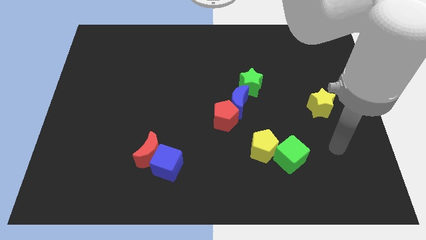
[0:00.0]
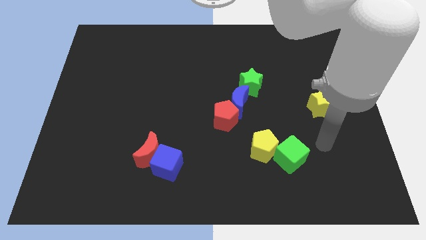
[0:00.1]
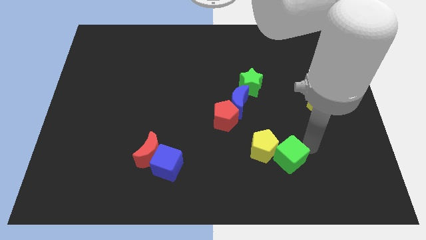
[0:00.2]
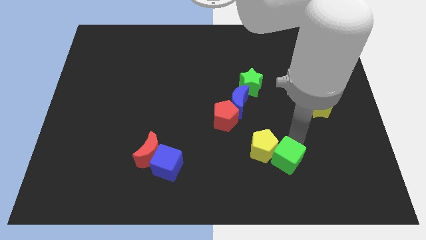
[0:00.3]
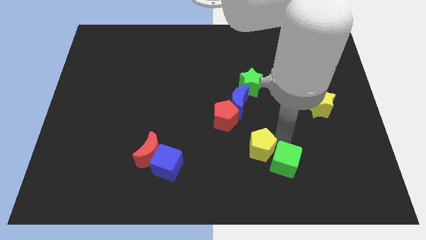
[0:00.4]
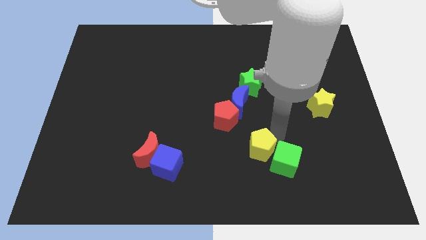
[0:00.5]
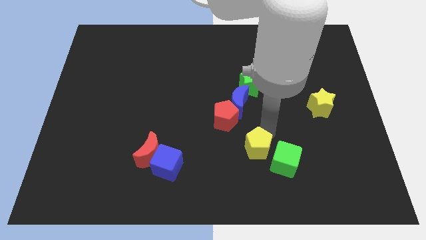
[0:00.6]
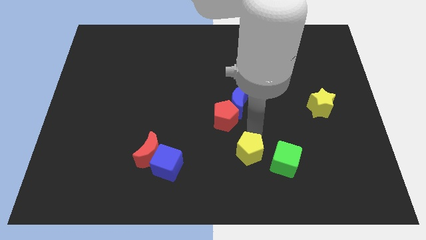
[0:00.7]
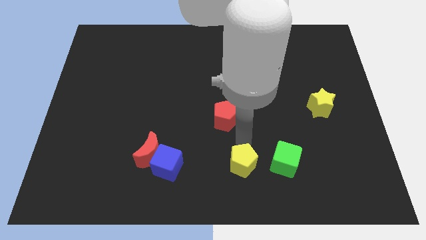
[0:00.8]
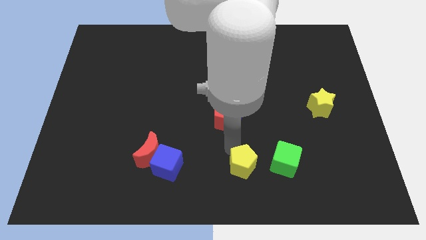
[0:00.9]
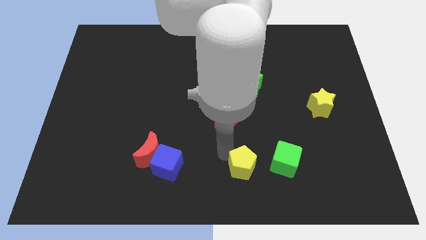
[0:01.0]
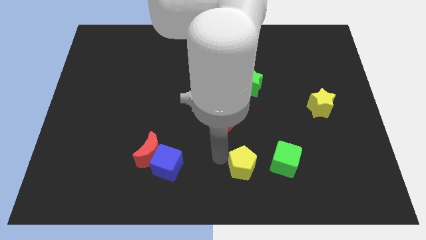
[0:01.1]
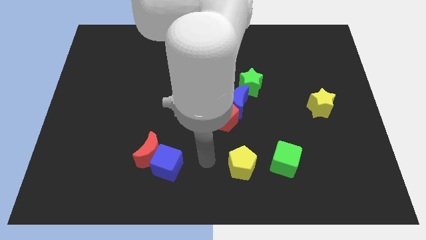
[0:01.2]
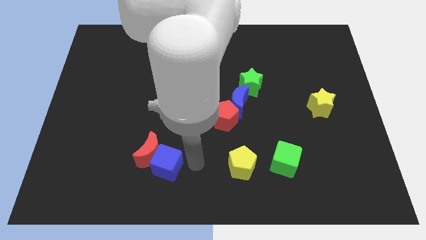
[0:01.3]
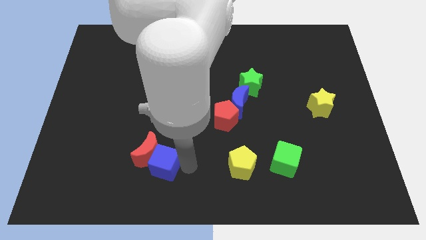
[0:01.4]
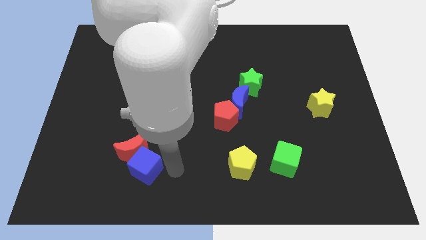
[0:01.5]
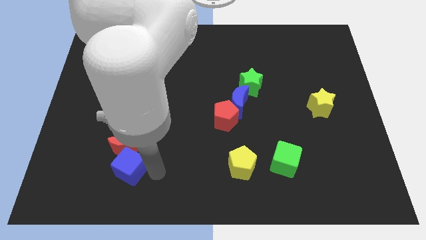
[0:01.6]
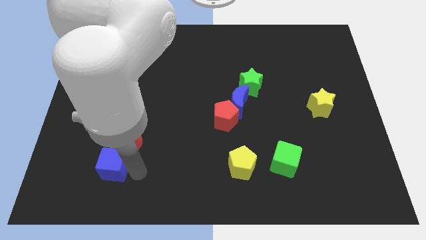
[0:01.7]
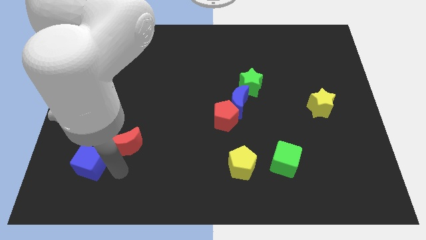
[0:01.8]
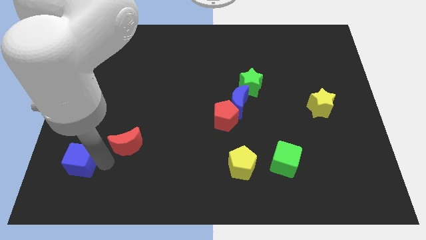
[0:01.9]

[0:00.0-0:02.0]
move the red moon away from the blue cube

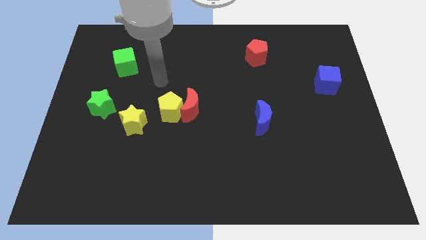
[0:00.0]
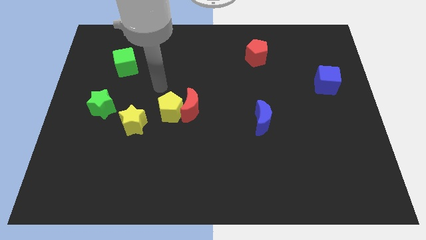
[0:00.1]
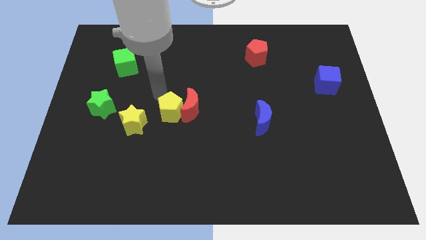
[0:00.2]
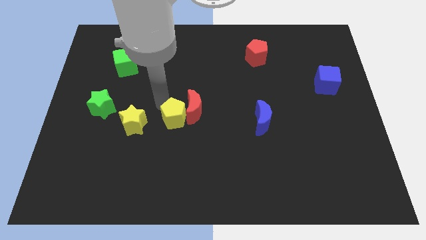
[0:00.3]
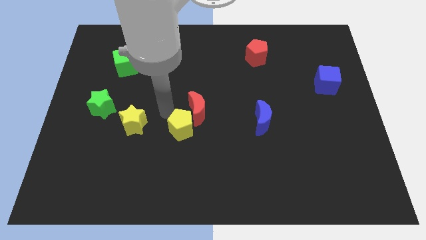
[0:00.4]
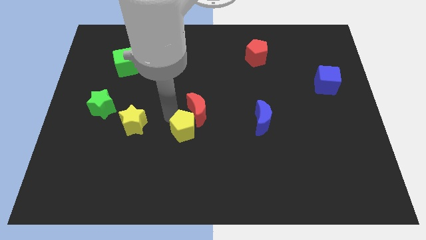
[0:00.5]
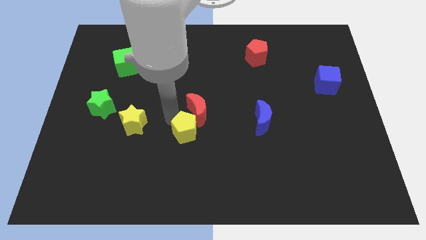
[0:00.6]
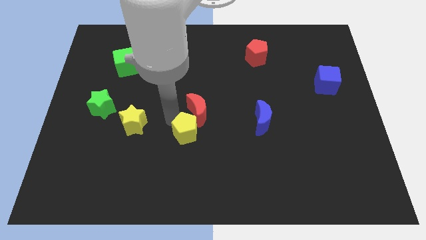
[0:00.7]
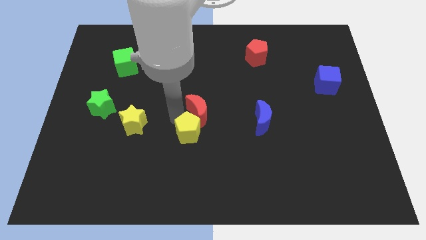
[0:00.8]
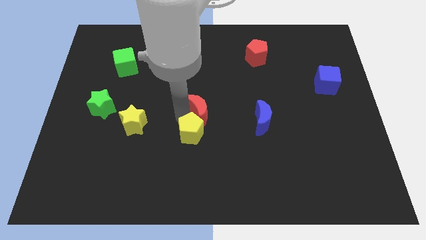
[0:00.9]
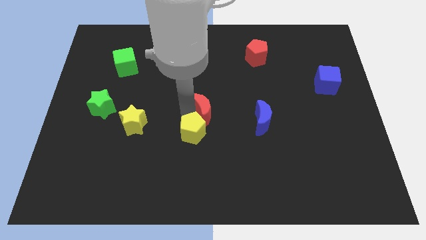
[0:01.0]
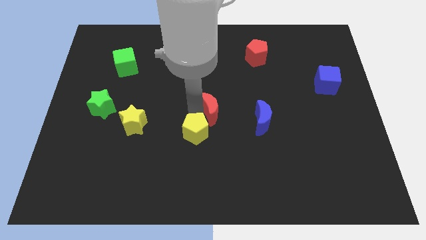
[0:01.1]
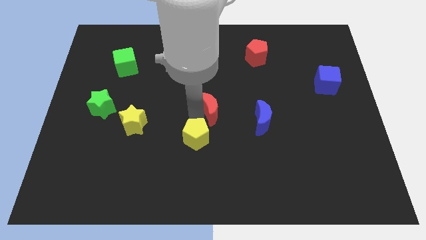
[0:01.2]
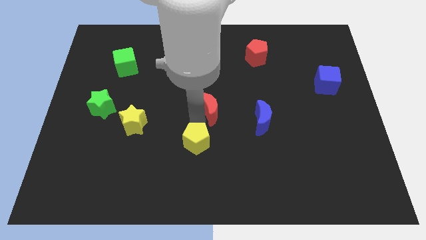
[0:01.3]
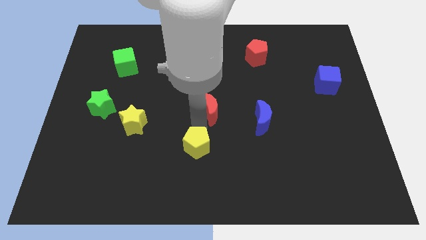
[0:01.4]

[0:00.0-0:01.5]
move the red moon away from the yellow pentagon

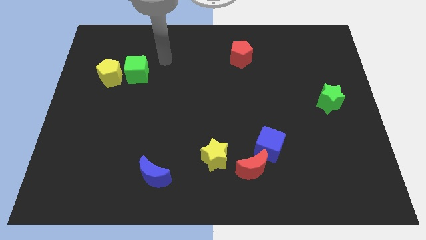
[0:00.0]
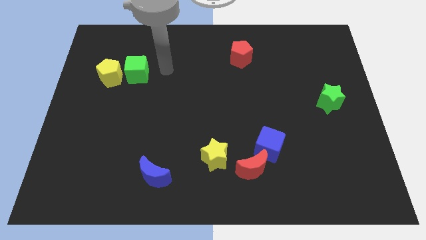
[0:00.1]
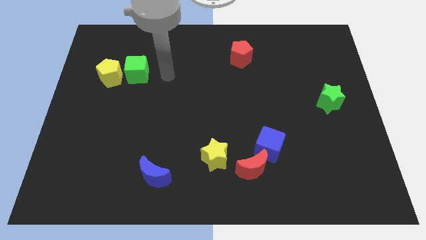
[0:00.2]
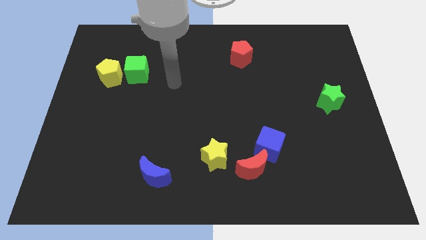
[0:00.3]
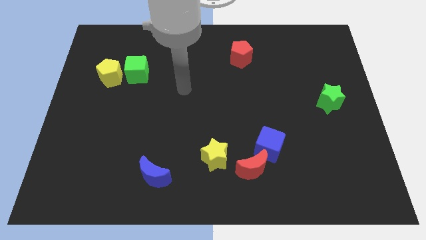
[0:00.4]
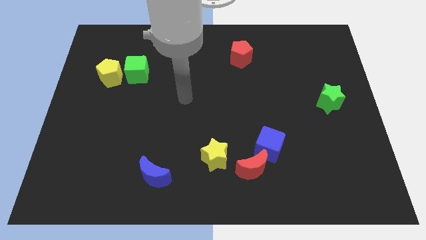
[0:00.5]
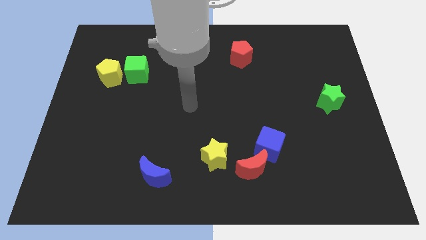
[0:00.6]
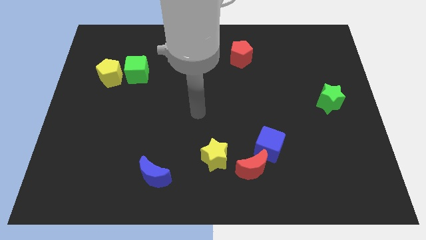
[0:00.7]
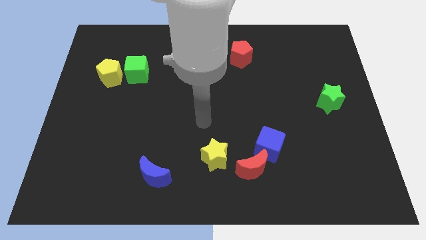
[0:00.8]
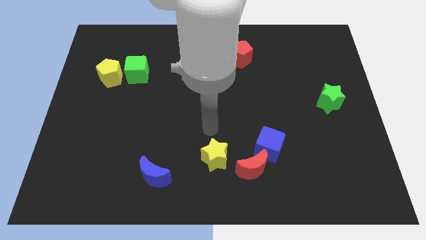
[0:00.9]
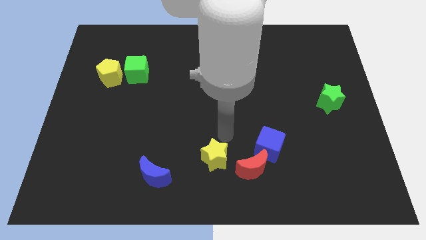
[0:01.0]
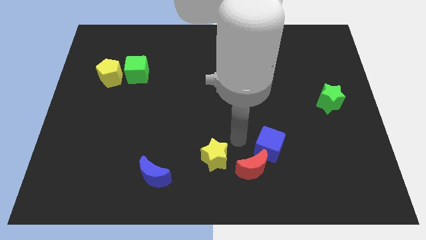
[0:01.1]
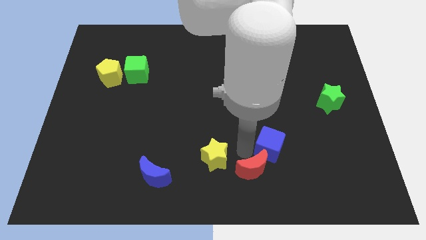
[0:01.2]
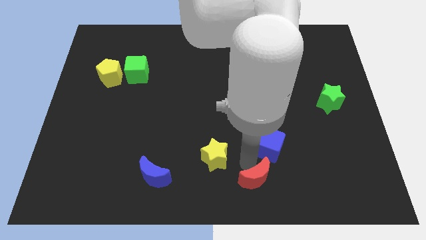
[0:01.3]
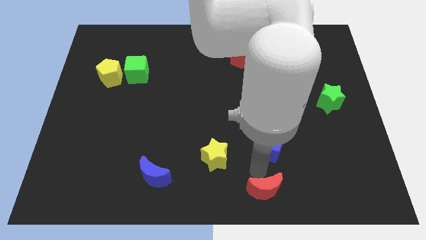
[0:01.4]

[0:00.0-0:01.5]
move the blue cube away from the red moon

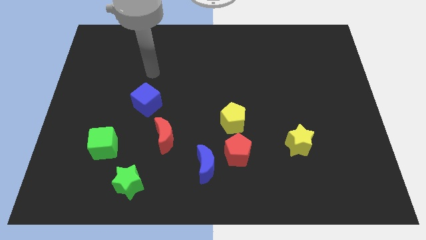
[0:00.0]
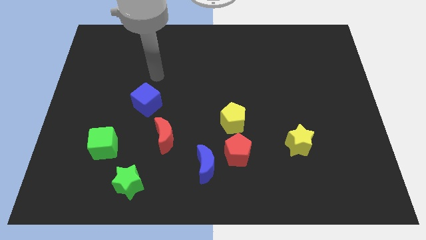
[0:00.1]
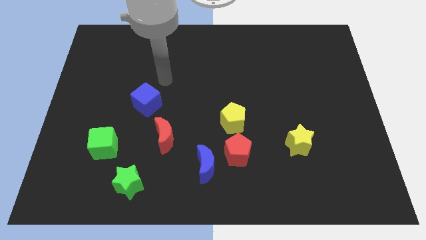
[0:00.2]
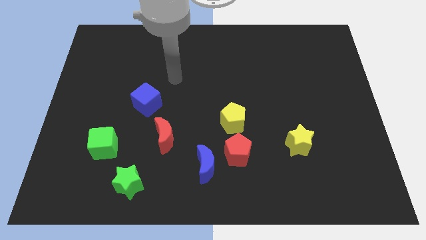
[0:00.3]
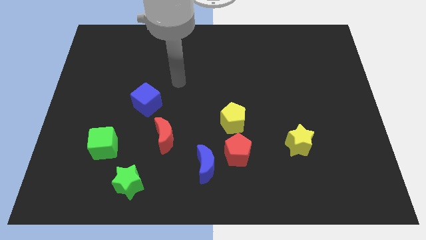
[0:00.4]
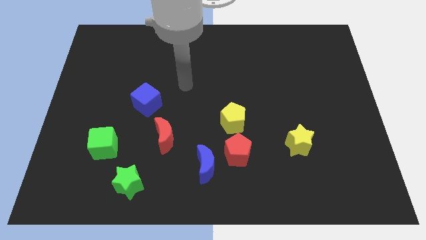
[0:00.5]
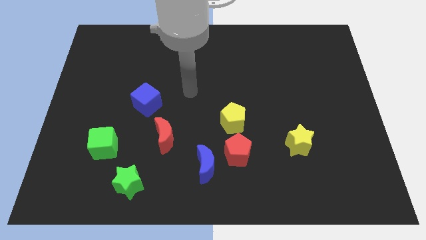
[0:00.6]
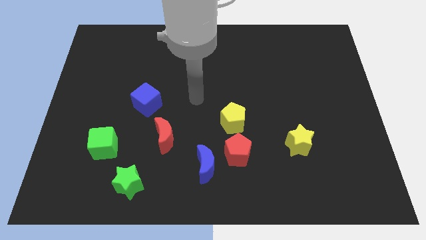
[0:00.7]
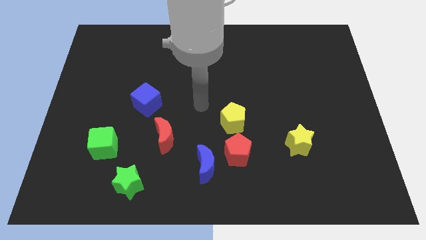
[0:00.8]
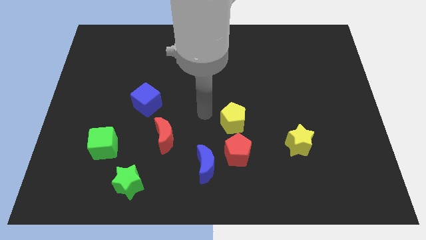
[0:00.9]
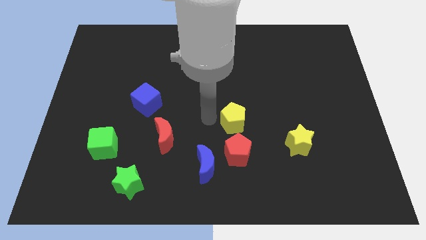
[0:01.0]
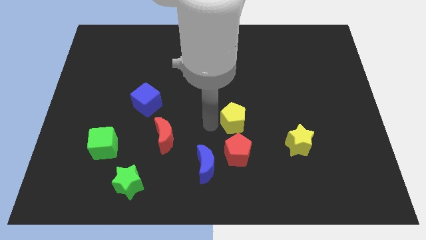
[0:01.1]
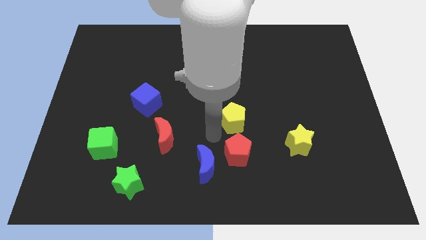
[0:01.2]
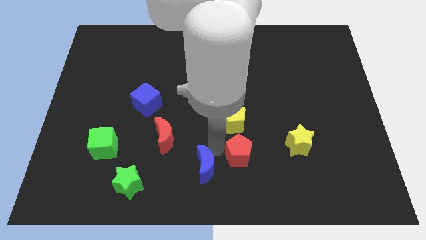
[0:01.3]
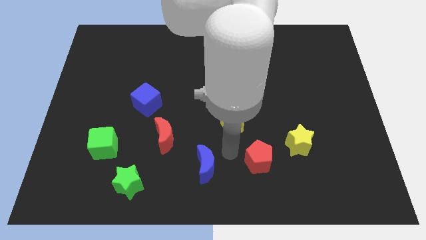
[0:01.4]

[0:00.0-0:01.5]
move the blue moon away from the red pentagon

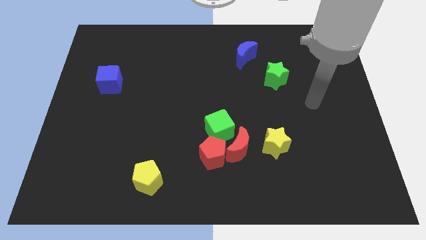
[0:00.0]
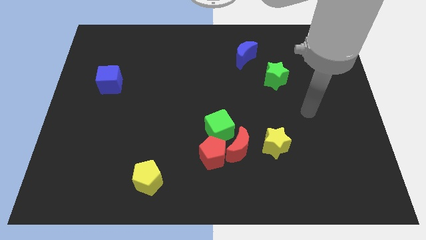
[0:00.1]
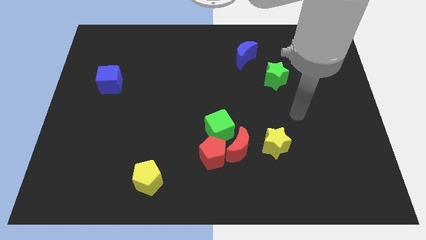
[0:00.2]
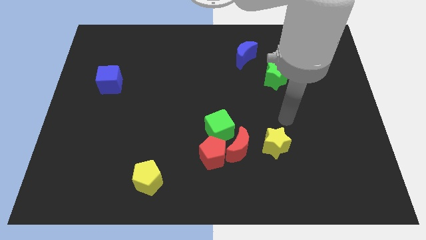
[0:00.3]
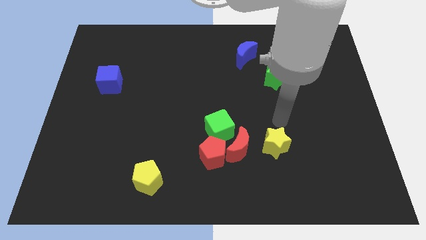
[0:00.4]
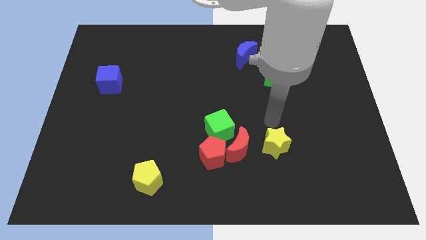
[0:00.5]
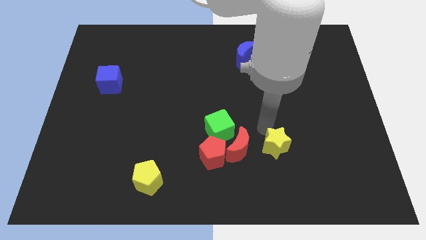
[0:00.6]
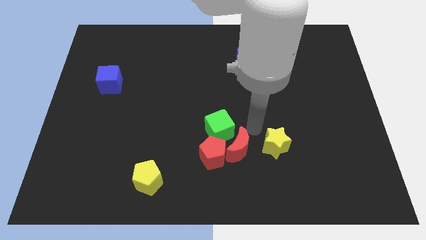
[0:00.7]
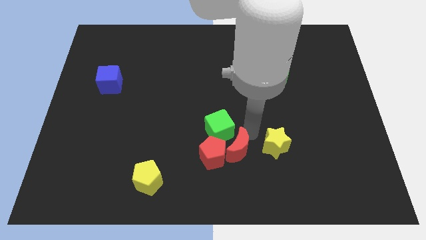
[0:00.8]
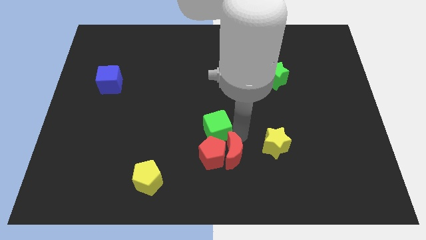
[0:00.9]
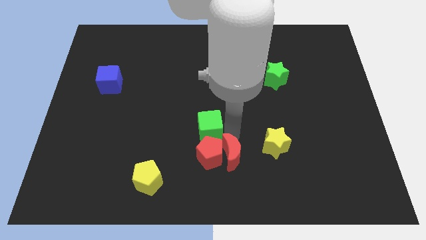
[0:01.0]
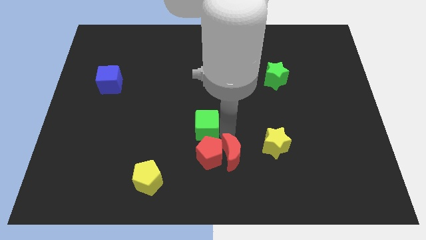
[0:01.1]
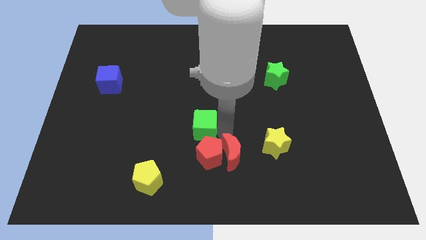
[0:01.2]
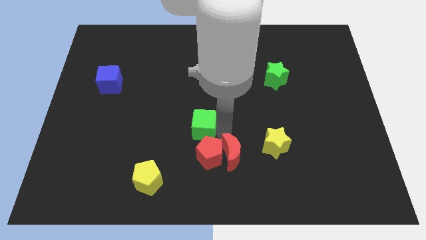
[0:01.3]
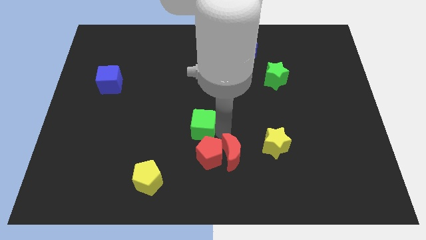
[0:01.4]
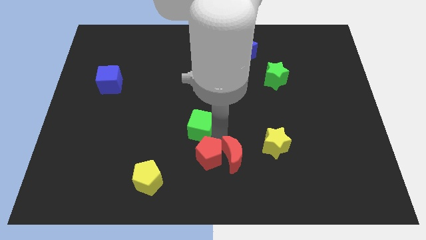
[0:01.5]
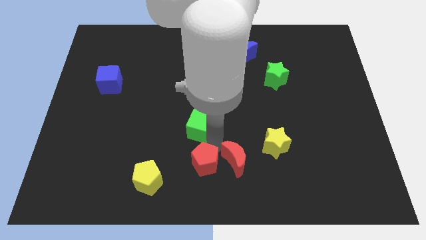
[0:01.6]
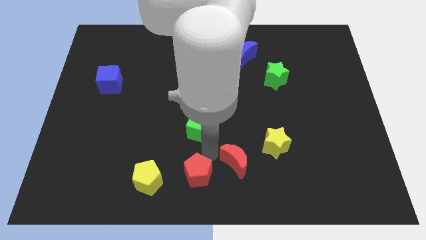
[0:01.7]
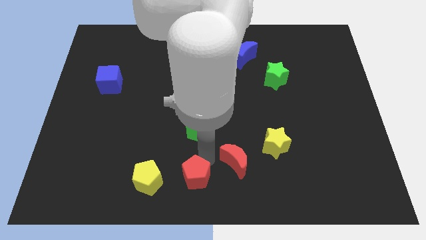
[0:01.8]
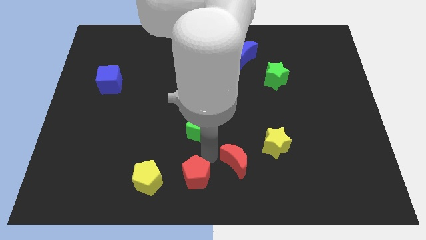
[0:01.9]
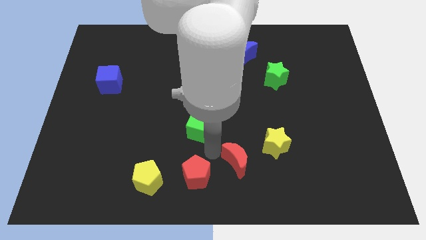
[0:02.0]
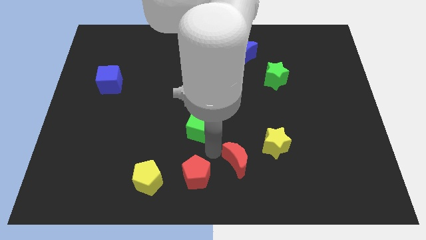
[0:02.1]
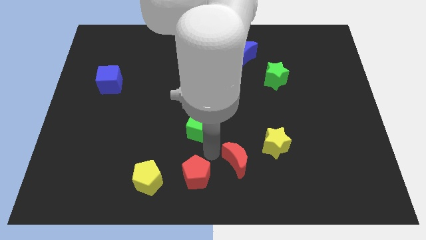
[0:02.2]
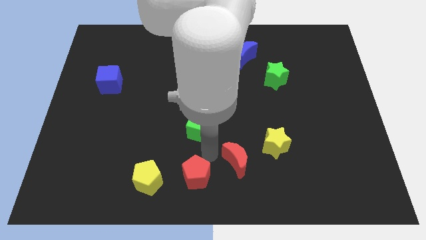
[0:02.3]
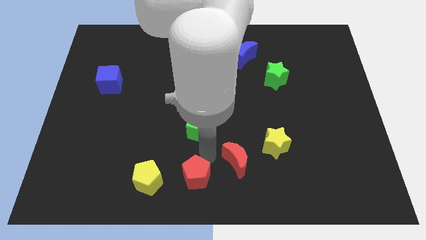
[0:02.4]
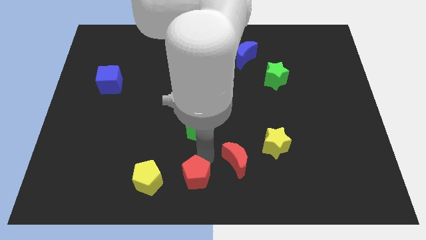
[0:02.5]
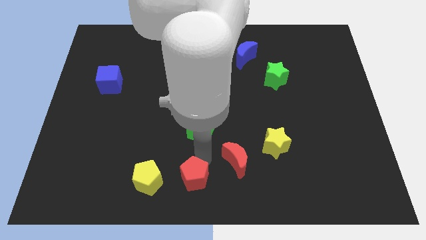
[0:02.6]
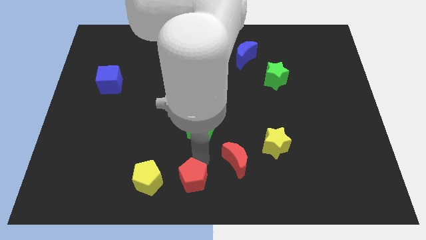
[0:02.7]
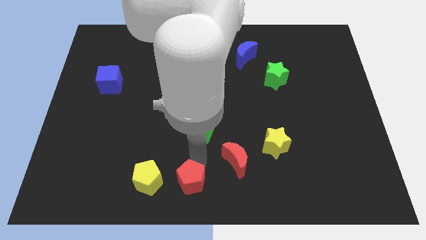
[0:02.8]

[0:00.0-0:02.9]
move the red pentagon away from the red moon and green cube
